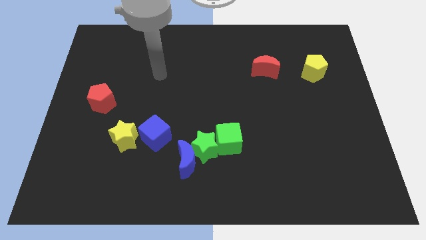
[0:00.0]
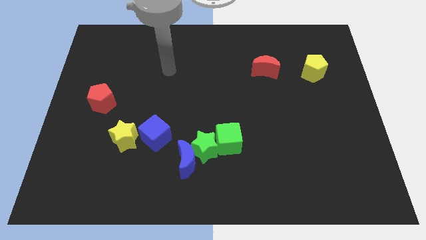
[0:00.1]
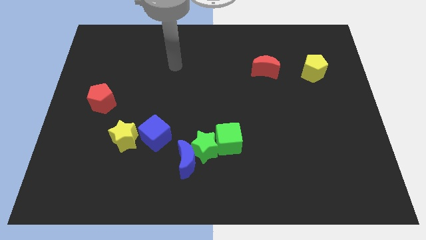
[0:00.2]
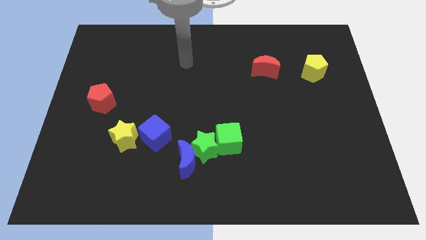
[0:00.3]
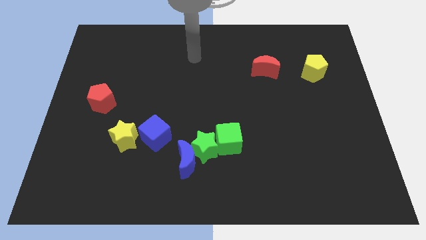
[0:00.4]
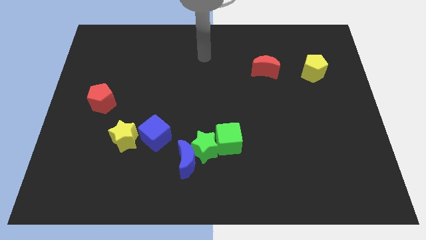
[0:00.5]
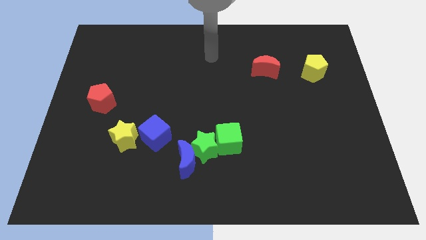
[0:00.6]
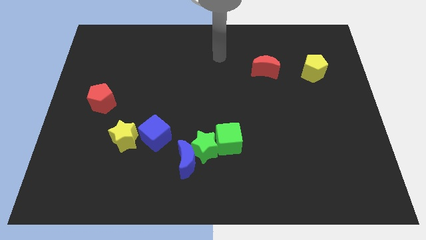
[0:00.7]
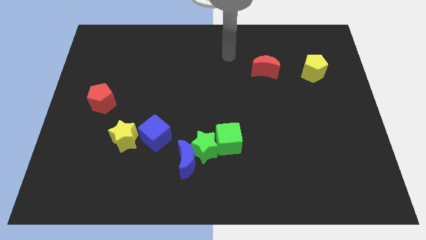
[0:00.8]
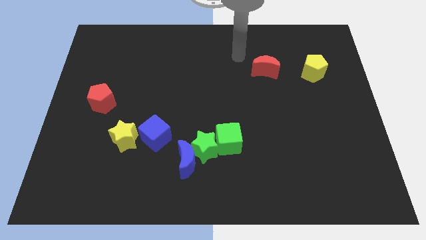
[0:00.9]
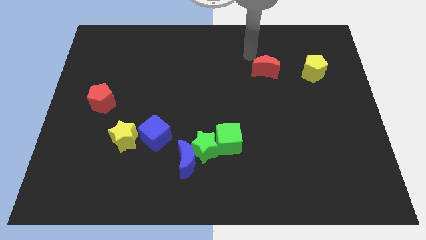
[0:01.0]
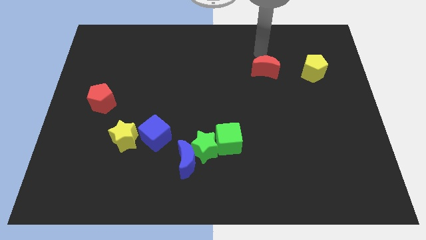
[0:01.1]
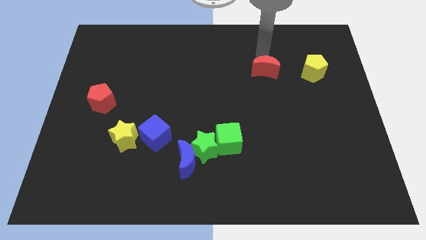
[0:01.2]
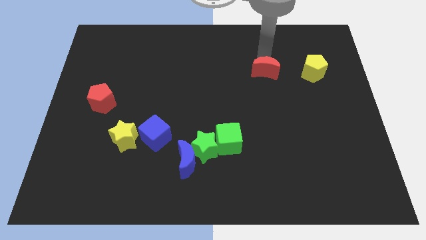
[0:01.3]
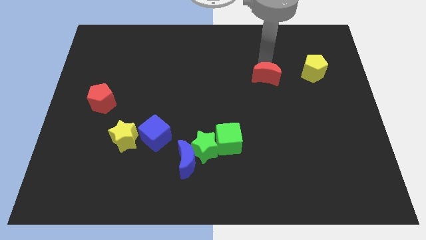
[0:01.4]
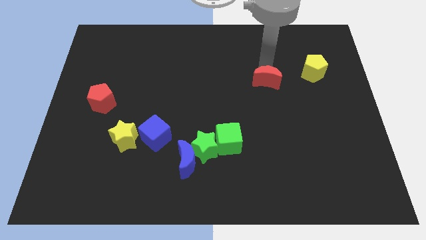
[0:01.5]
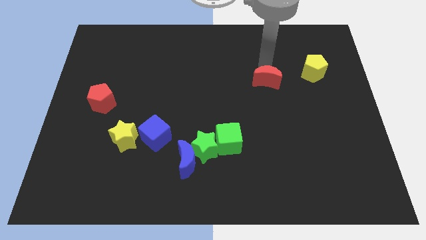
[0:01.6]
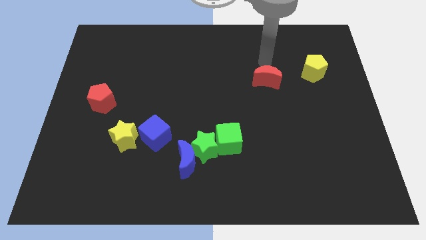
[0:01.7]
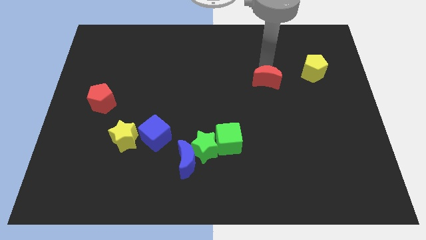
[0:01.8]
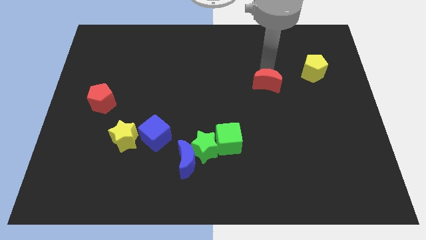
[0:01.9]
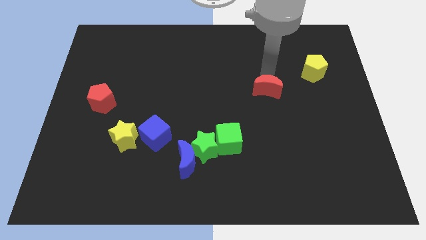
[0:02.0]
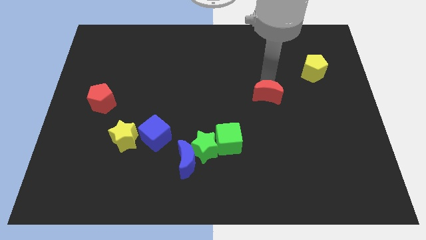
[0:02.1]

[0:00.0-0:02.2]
slightly move the red moon down

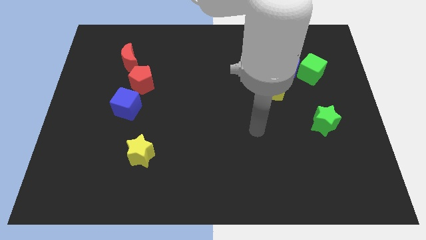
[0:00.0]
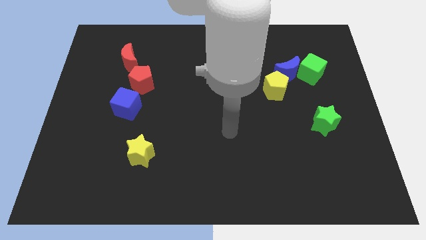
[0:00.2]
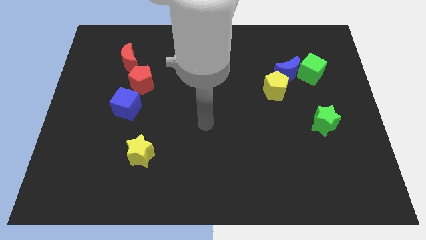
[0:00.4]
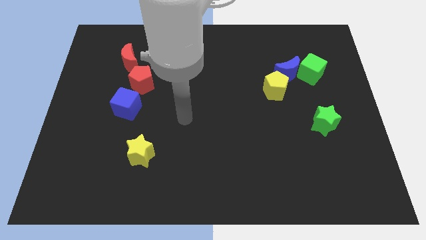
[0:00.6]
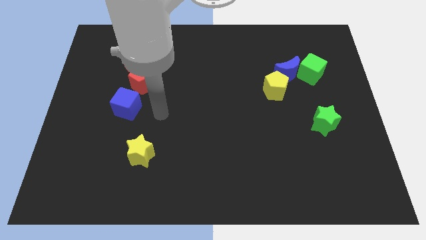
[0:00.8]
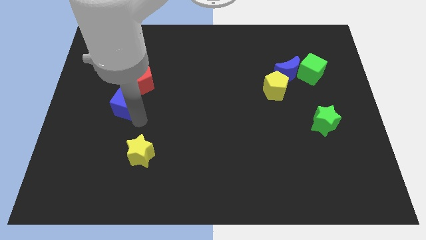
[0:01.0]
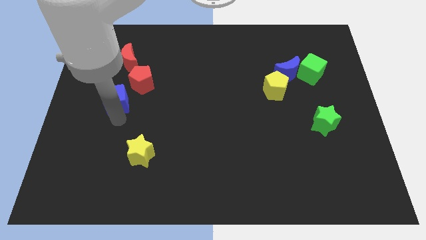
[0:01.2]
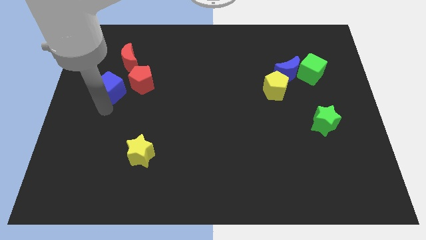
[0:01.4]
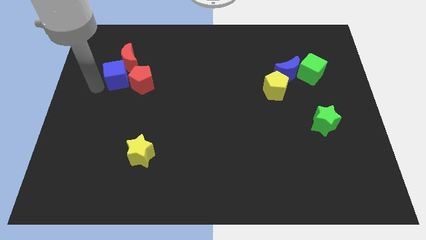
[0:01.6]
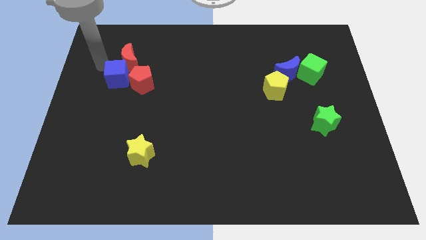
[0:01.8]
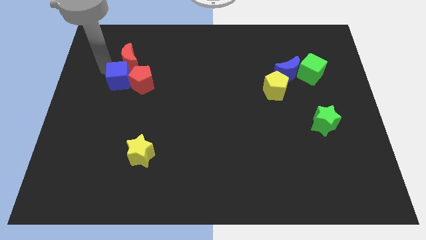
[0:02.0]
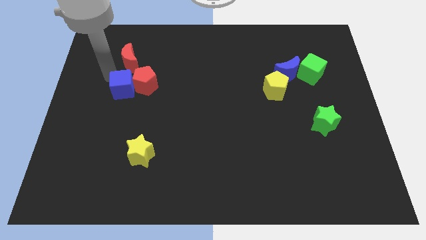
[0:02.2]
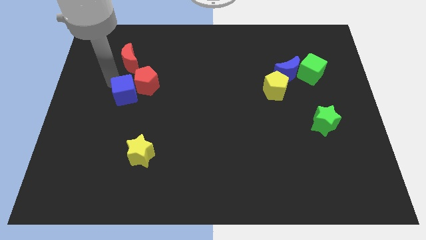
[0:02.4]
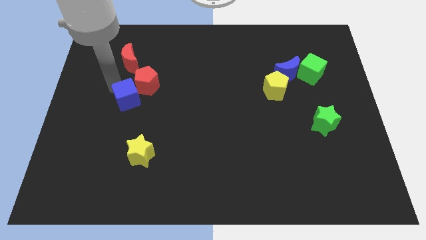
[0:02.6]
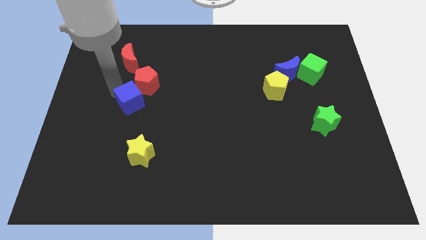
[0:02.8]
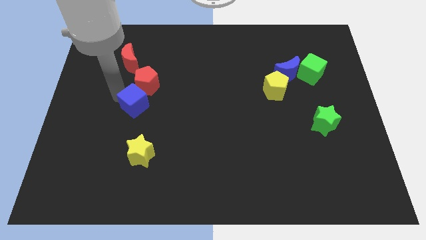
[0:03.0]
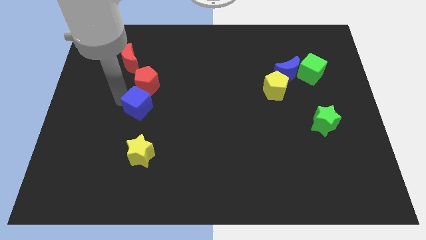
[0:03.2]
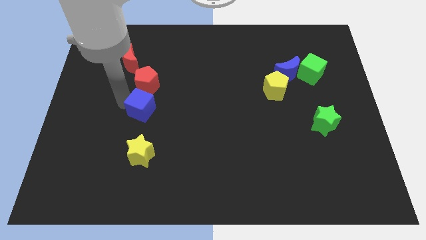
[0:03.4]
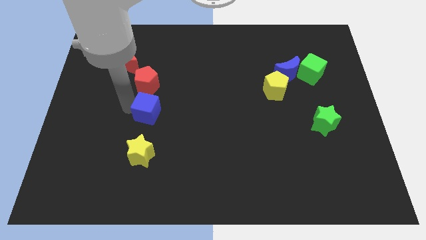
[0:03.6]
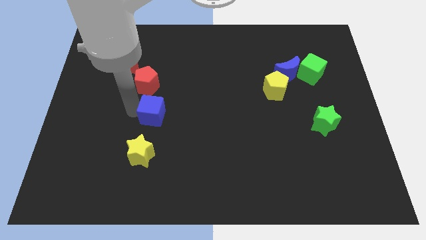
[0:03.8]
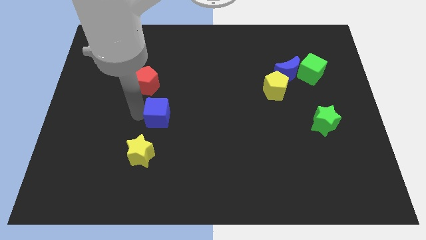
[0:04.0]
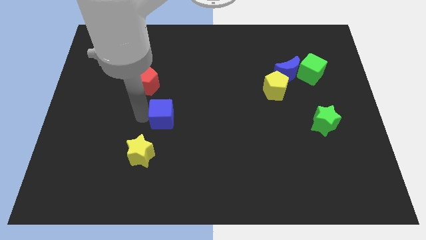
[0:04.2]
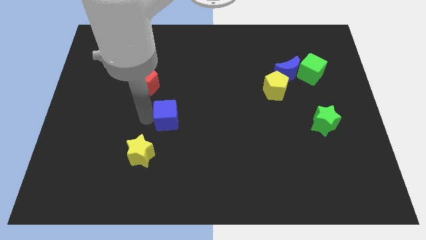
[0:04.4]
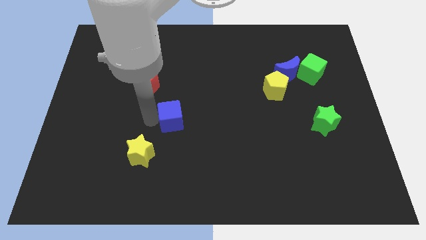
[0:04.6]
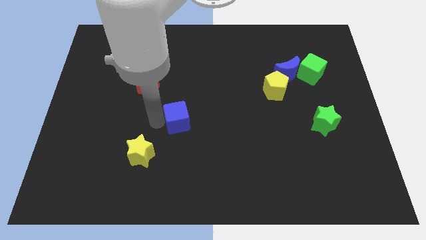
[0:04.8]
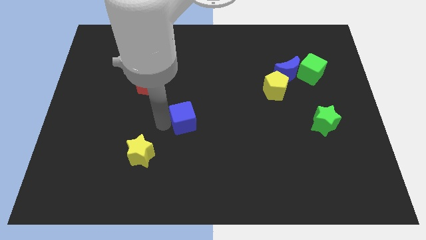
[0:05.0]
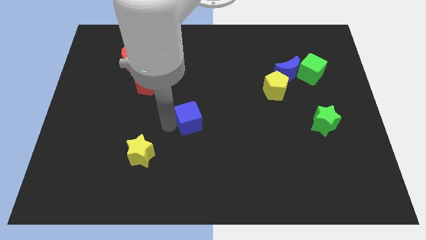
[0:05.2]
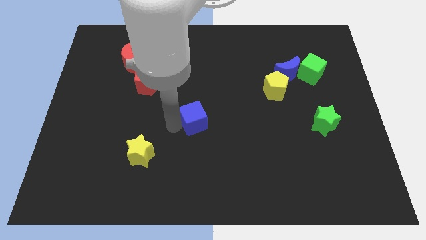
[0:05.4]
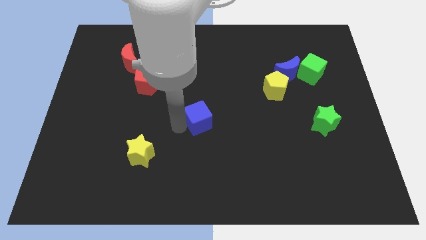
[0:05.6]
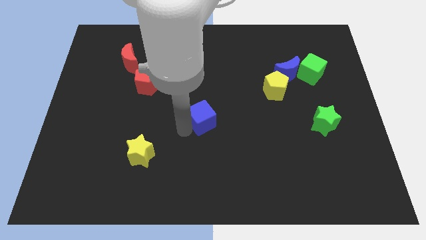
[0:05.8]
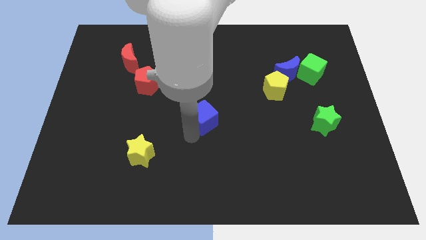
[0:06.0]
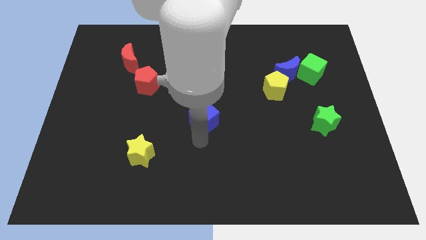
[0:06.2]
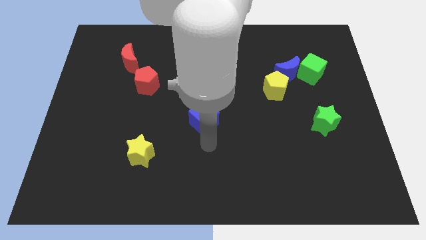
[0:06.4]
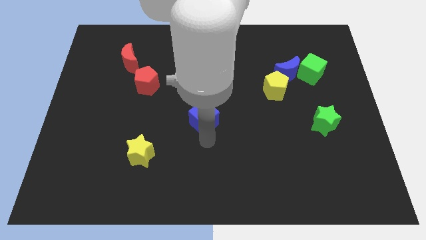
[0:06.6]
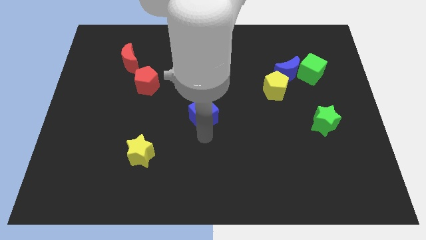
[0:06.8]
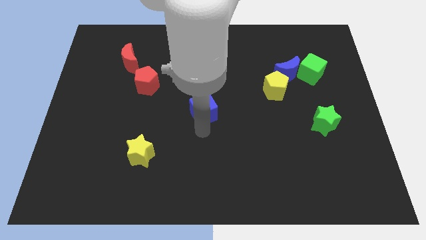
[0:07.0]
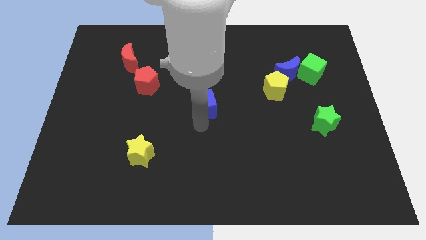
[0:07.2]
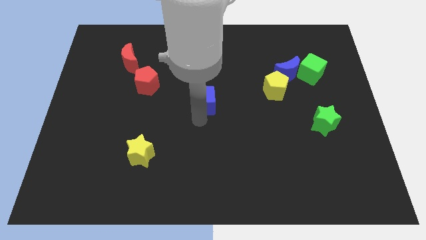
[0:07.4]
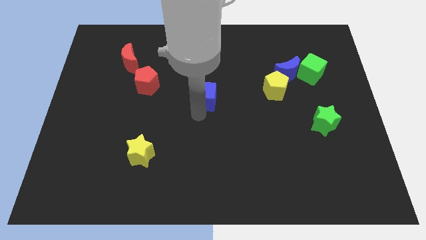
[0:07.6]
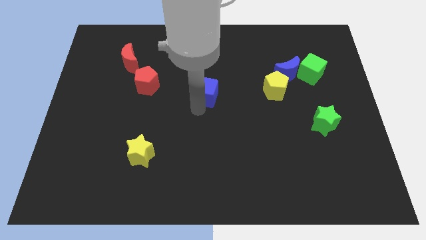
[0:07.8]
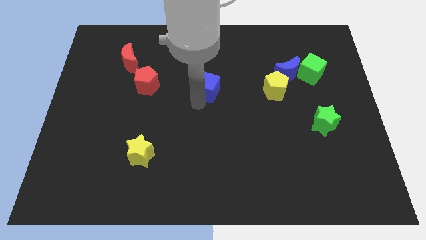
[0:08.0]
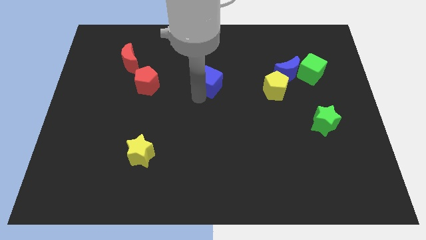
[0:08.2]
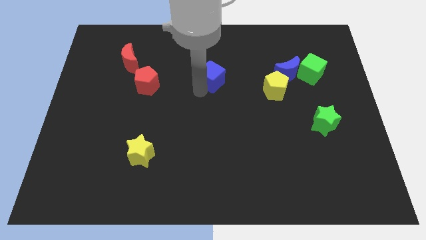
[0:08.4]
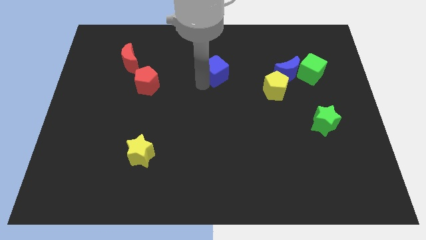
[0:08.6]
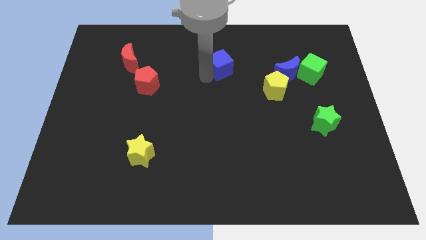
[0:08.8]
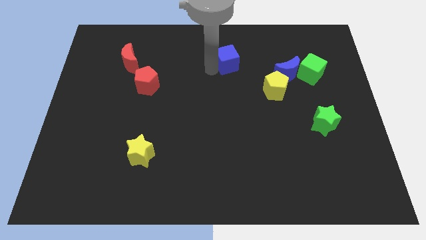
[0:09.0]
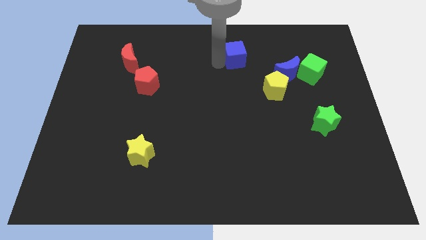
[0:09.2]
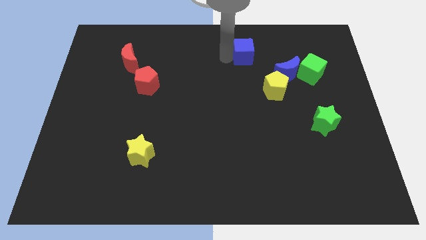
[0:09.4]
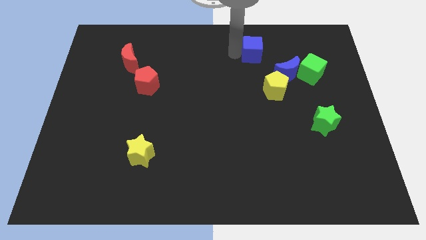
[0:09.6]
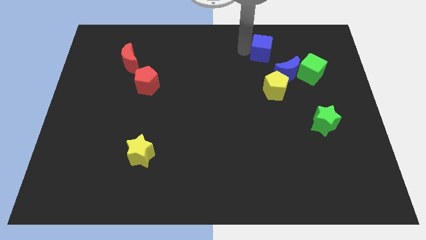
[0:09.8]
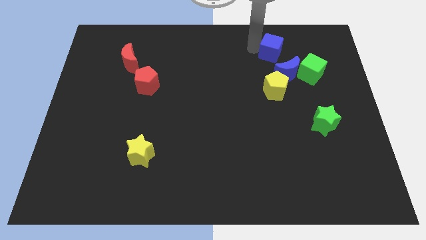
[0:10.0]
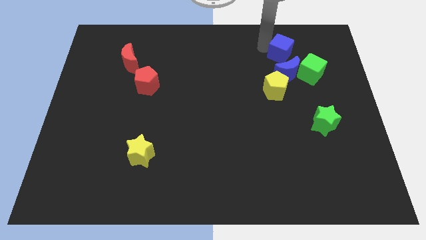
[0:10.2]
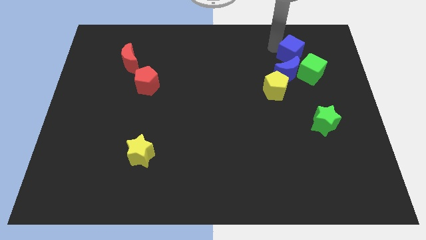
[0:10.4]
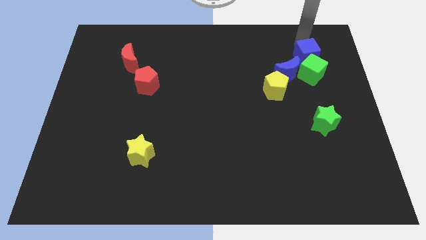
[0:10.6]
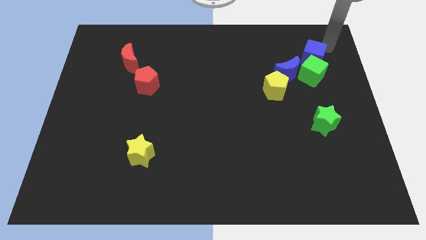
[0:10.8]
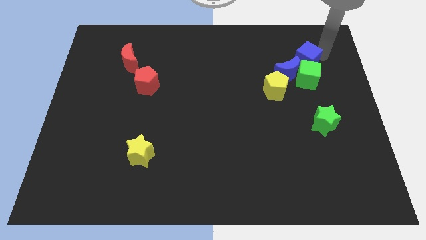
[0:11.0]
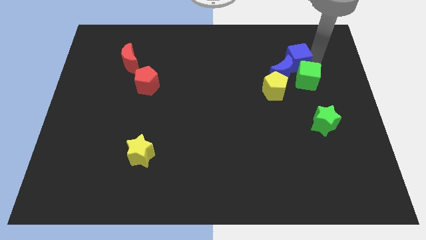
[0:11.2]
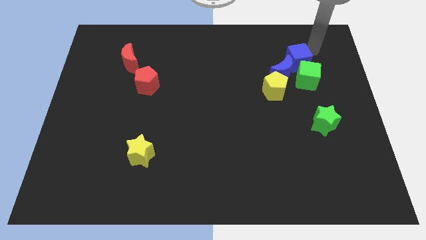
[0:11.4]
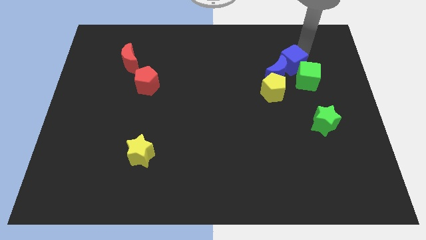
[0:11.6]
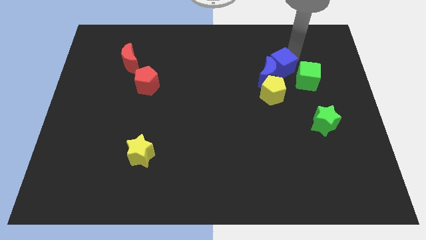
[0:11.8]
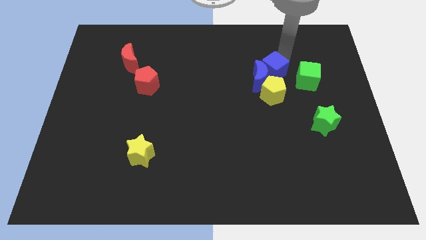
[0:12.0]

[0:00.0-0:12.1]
move the blue cube right
